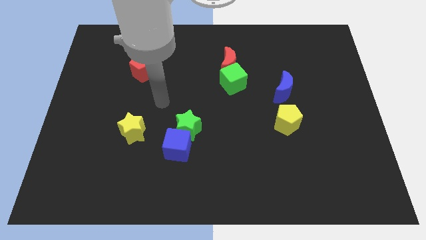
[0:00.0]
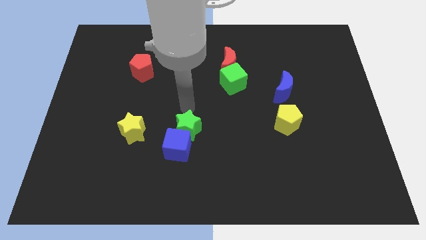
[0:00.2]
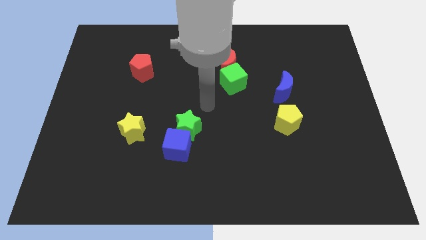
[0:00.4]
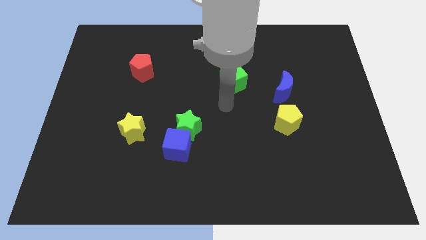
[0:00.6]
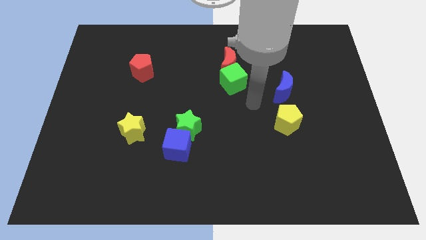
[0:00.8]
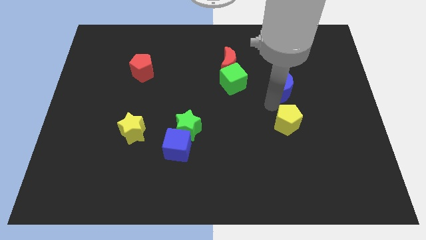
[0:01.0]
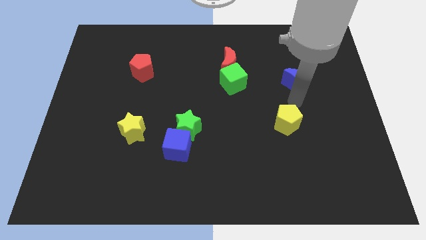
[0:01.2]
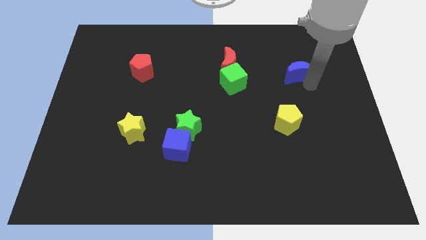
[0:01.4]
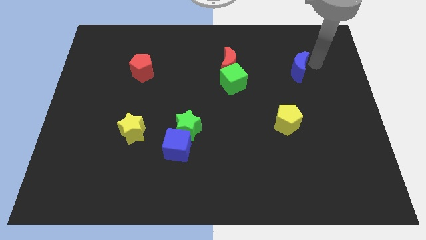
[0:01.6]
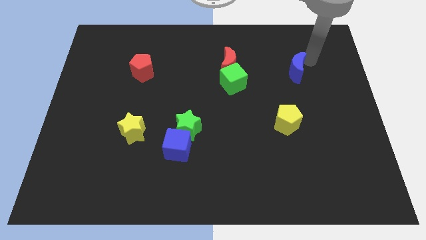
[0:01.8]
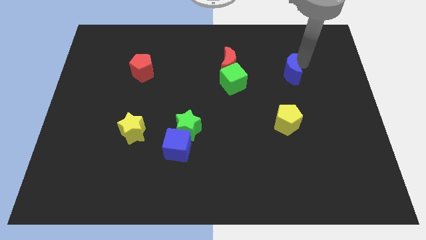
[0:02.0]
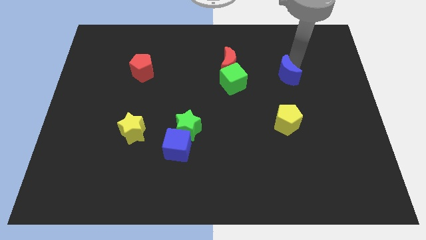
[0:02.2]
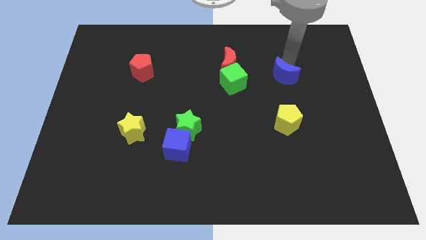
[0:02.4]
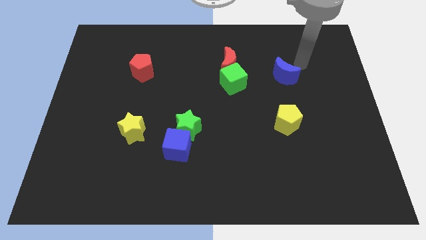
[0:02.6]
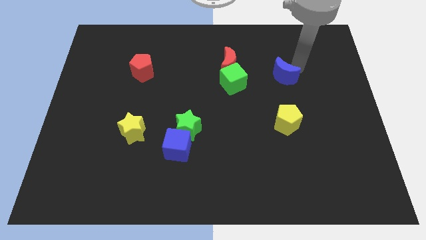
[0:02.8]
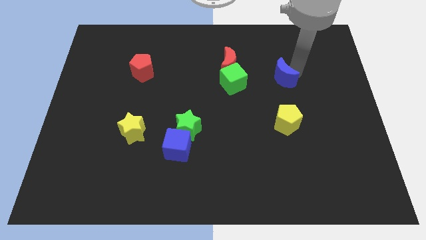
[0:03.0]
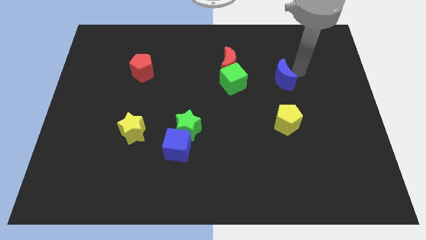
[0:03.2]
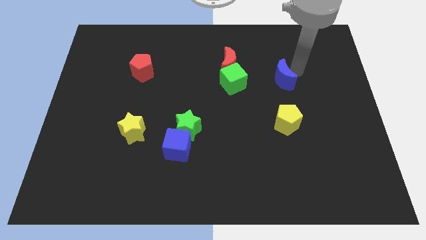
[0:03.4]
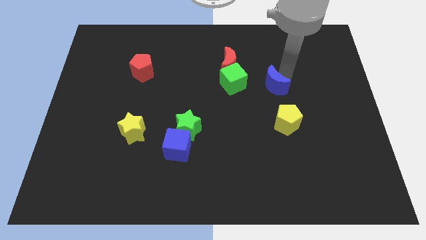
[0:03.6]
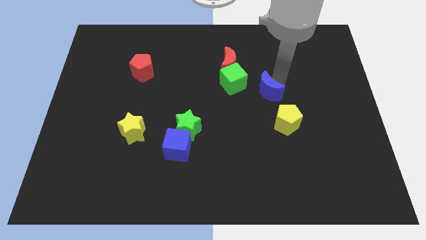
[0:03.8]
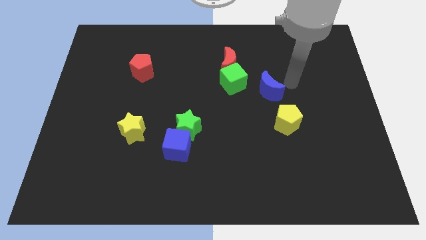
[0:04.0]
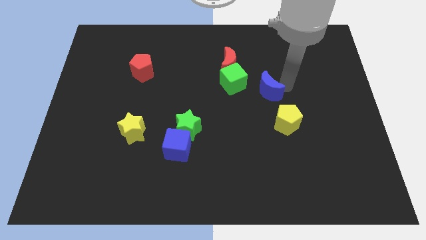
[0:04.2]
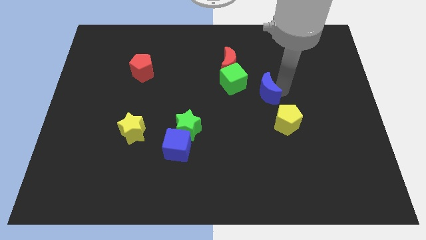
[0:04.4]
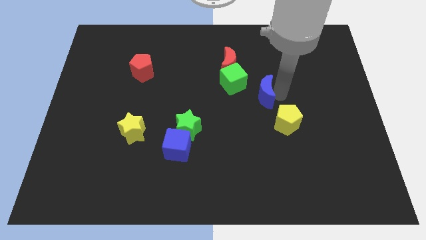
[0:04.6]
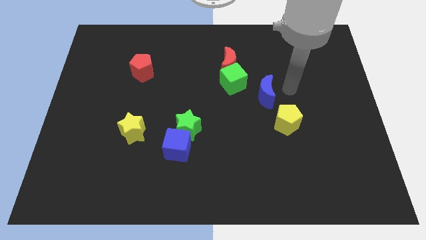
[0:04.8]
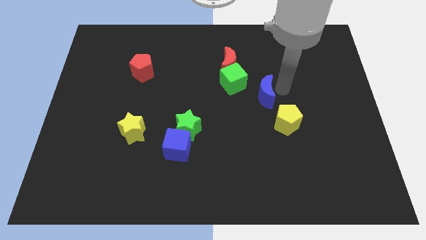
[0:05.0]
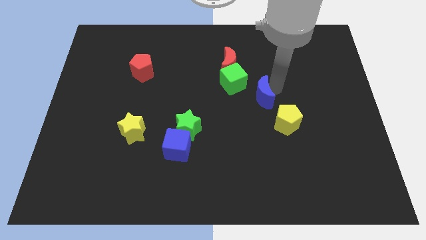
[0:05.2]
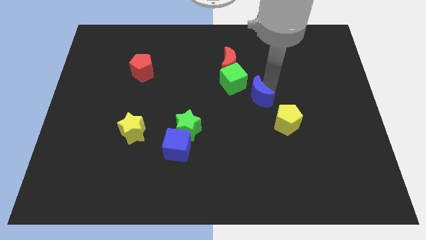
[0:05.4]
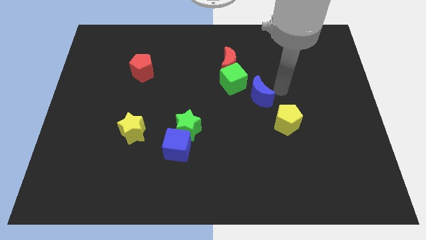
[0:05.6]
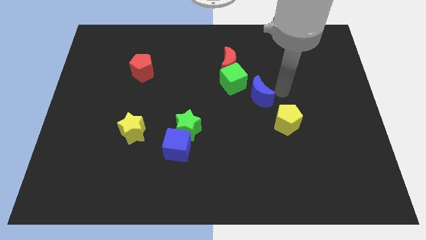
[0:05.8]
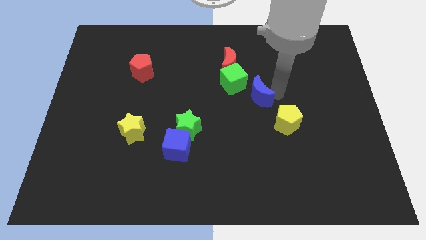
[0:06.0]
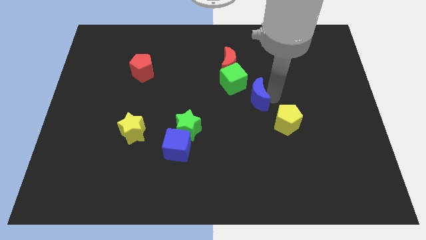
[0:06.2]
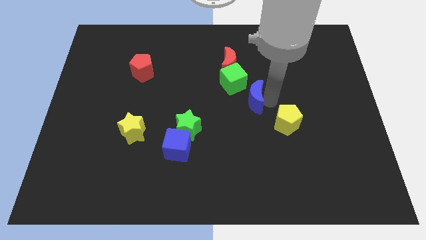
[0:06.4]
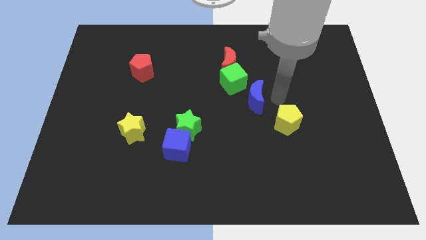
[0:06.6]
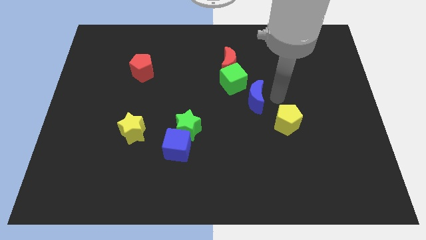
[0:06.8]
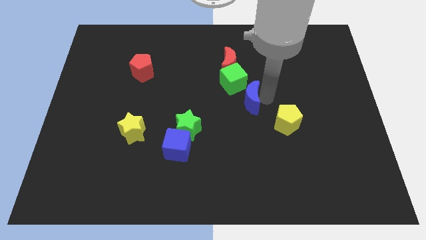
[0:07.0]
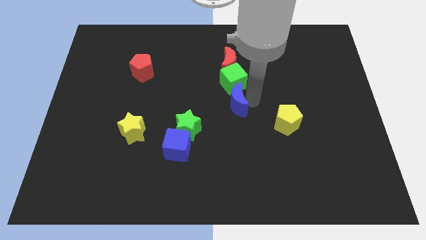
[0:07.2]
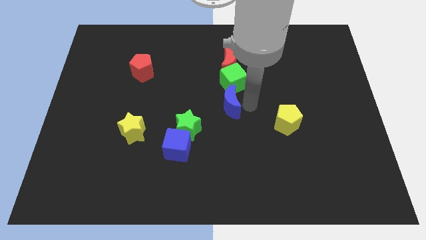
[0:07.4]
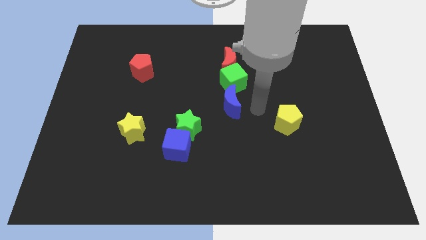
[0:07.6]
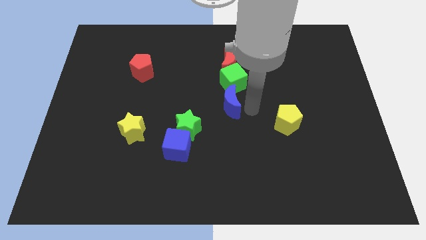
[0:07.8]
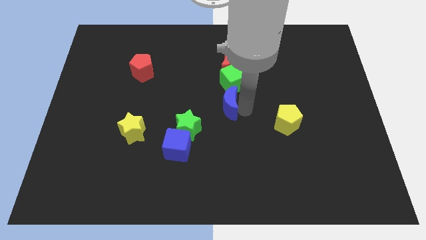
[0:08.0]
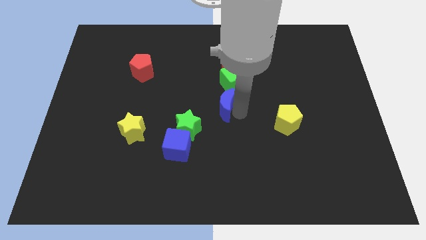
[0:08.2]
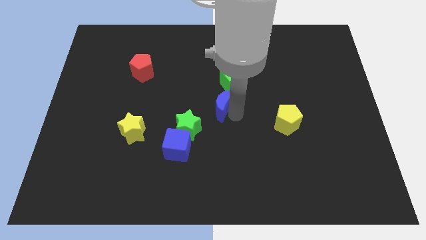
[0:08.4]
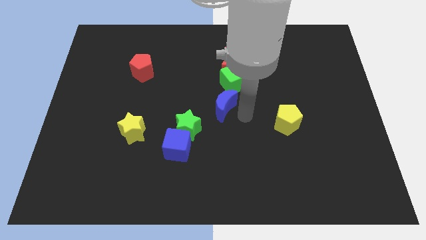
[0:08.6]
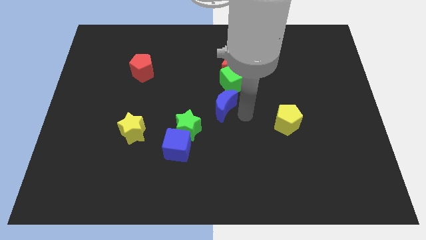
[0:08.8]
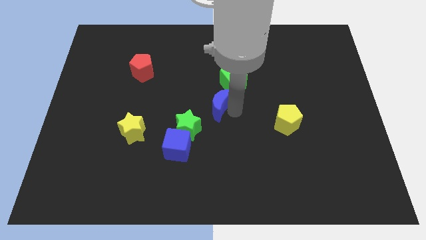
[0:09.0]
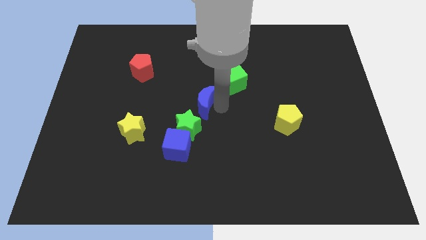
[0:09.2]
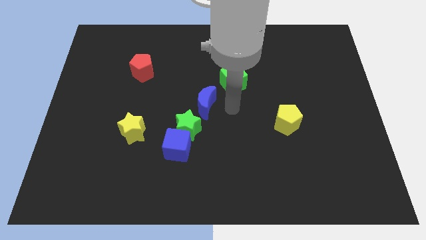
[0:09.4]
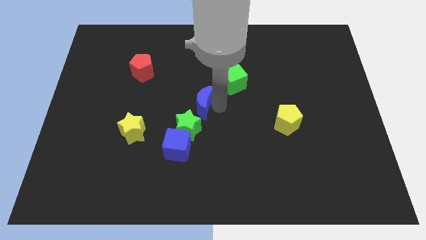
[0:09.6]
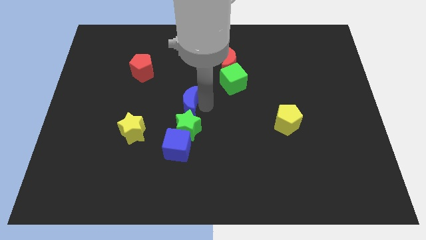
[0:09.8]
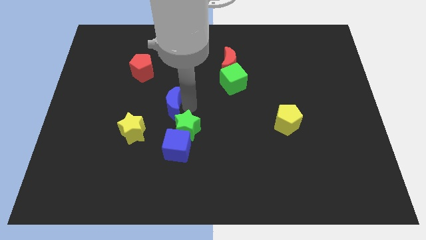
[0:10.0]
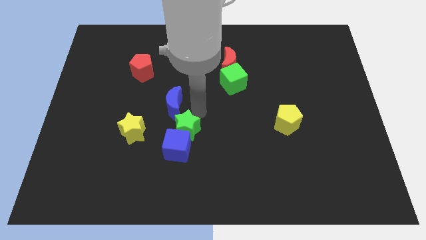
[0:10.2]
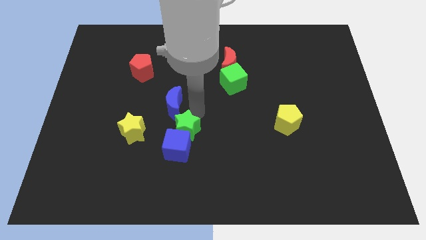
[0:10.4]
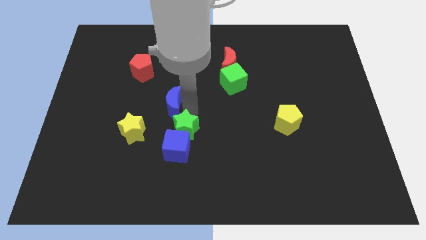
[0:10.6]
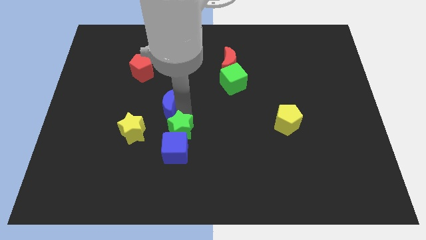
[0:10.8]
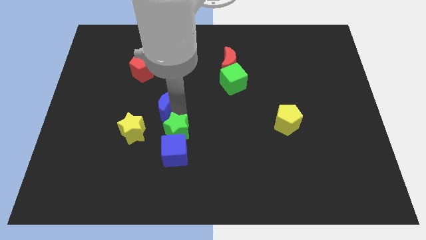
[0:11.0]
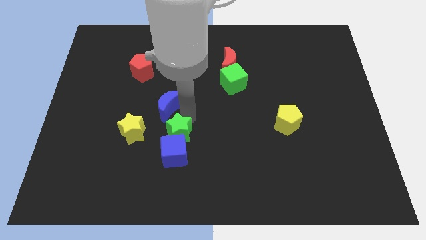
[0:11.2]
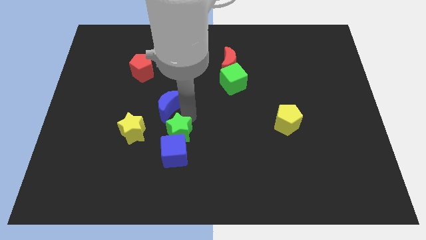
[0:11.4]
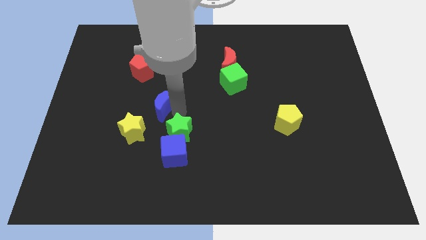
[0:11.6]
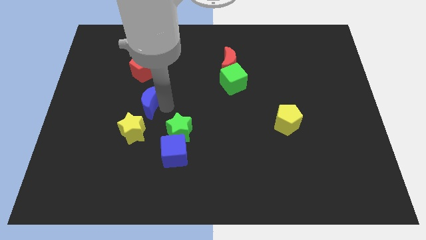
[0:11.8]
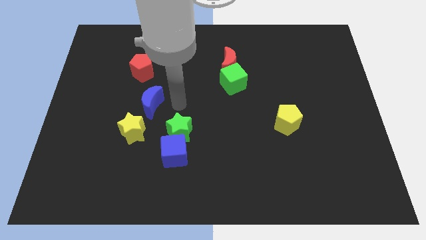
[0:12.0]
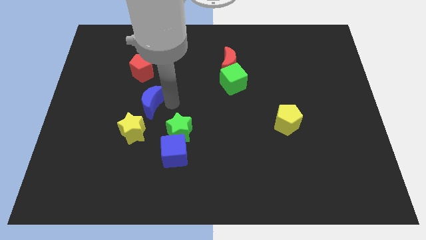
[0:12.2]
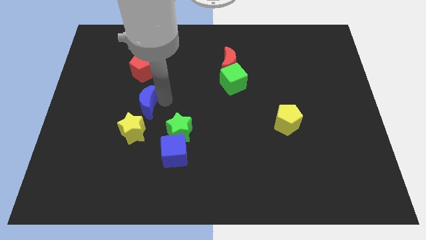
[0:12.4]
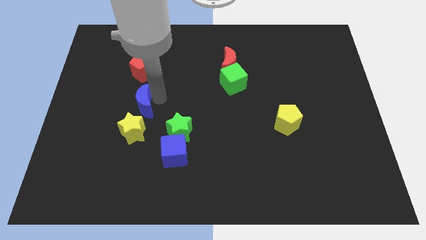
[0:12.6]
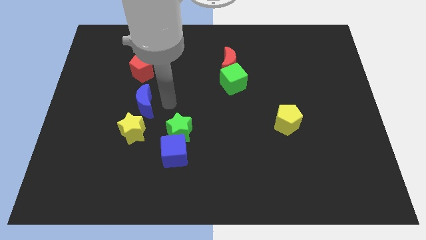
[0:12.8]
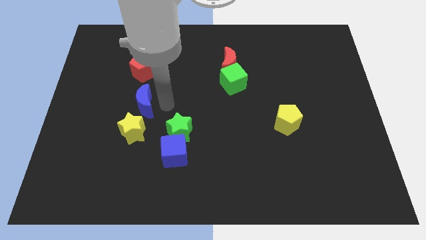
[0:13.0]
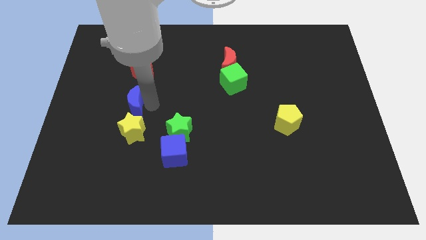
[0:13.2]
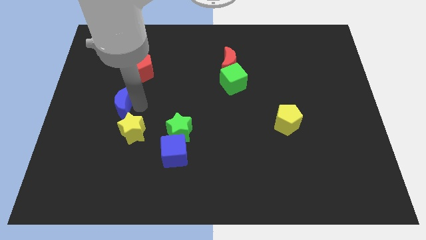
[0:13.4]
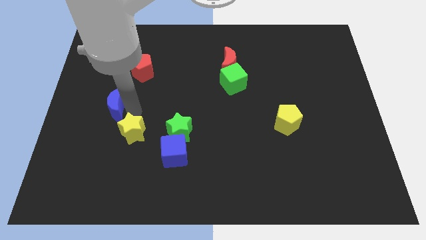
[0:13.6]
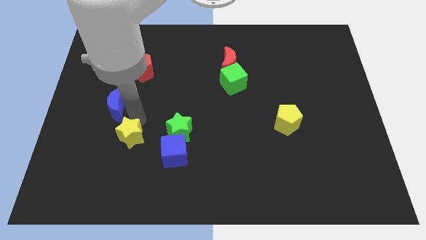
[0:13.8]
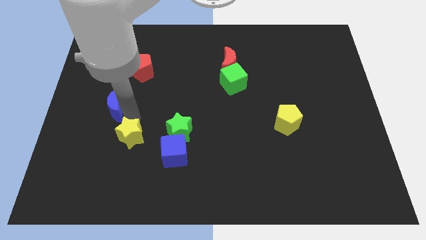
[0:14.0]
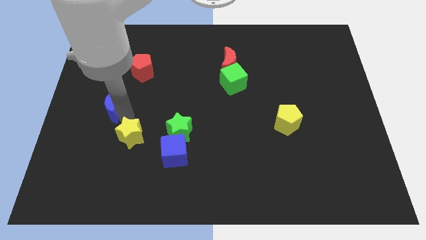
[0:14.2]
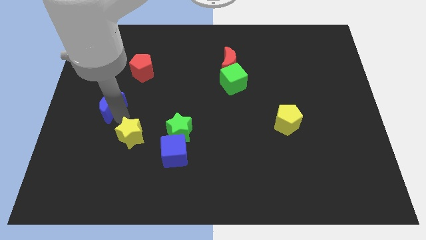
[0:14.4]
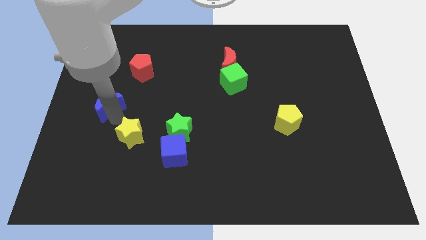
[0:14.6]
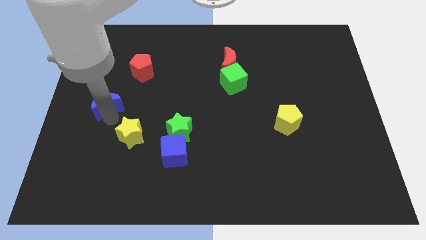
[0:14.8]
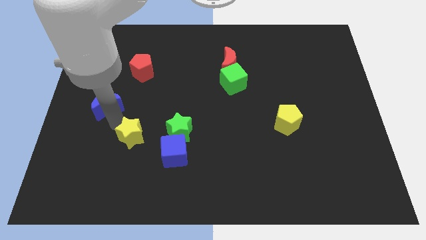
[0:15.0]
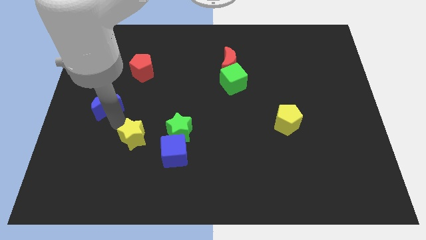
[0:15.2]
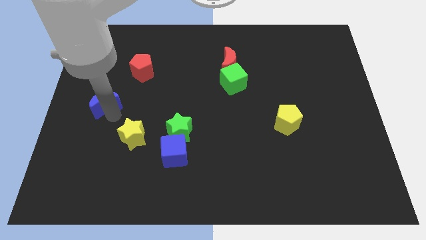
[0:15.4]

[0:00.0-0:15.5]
push the blue moon to the left side of the board

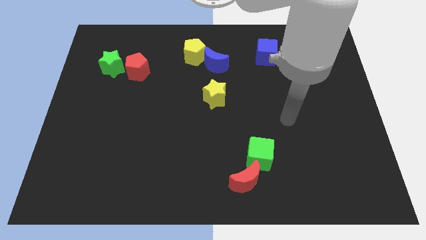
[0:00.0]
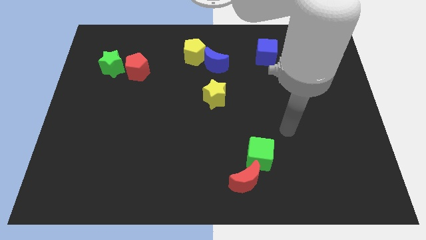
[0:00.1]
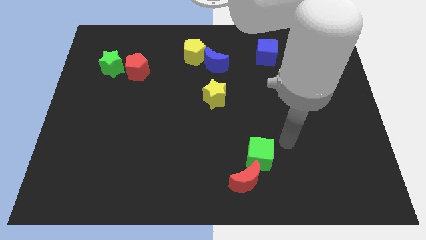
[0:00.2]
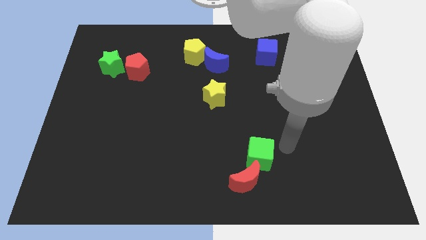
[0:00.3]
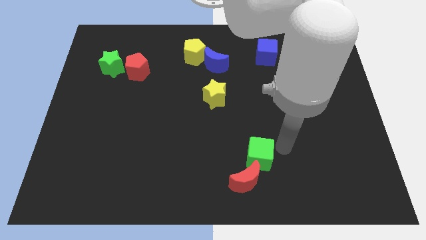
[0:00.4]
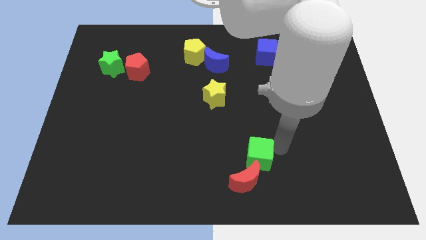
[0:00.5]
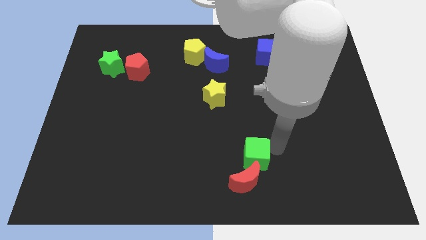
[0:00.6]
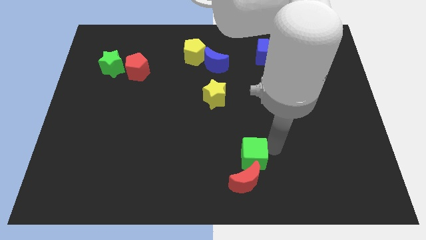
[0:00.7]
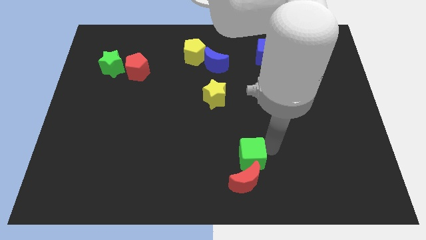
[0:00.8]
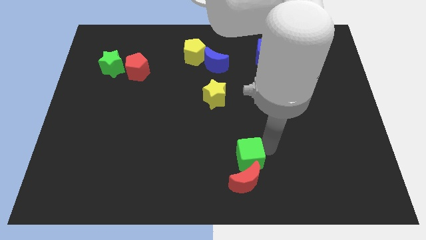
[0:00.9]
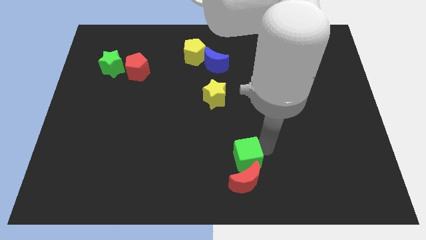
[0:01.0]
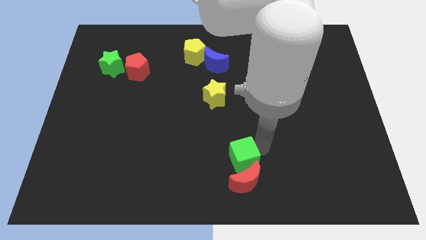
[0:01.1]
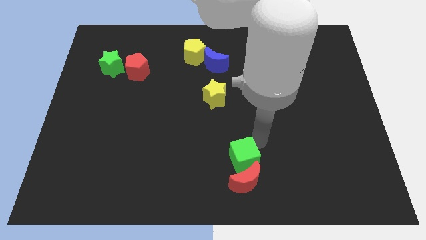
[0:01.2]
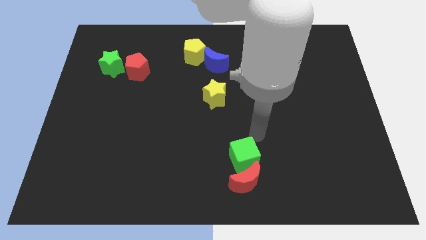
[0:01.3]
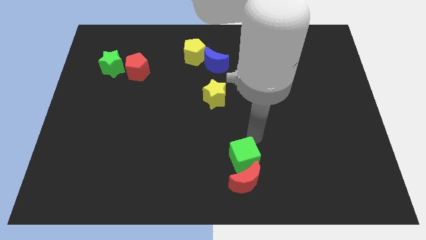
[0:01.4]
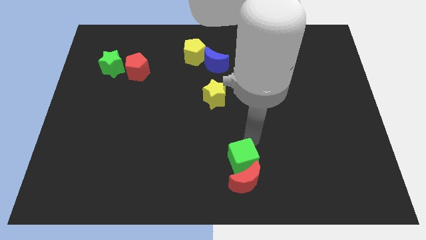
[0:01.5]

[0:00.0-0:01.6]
push the green cube to the bottom
